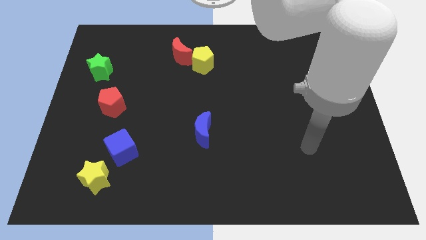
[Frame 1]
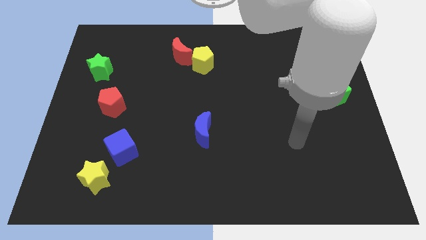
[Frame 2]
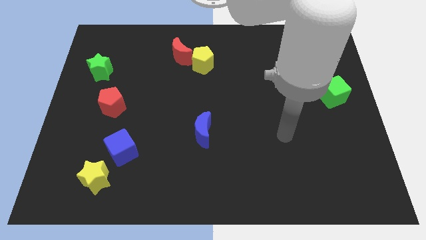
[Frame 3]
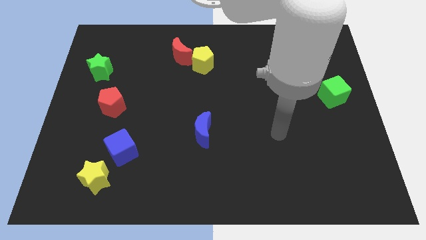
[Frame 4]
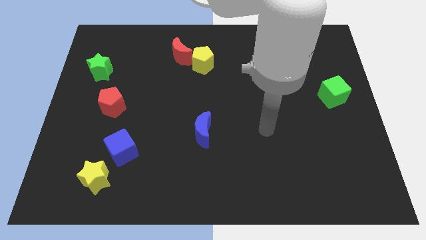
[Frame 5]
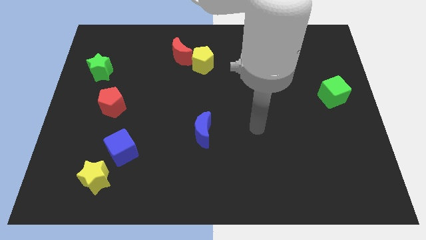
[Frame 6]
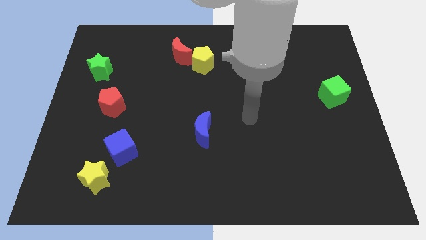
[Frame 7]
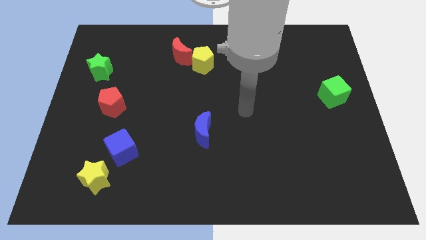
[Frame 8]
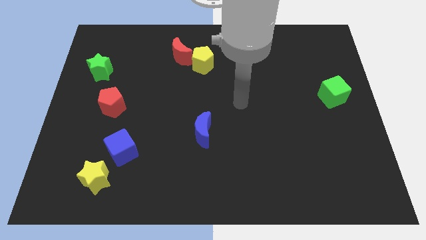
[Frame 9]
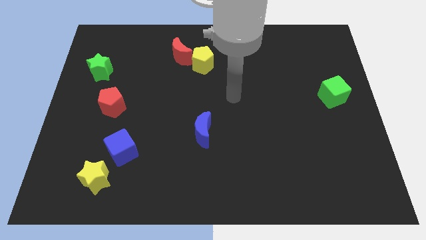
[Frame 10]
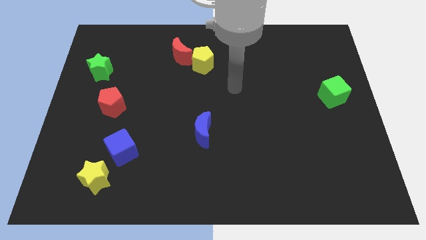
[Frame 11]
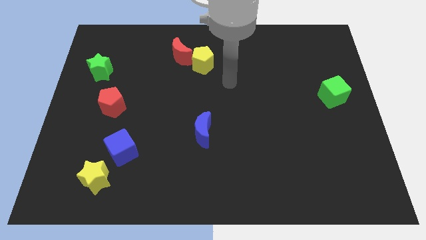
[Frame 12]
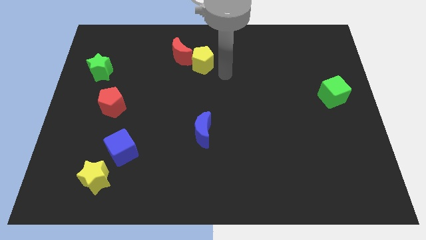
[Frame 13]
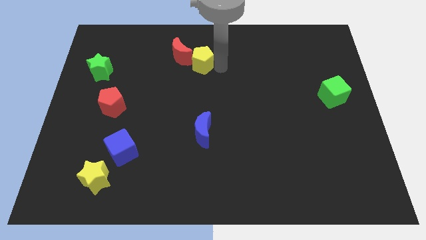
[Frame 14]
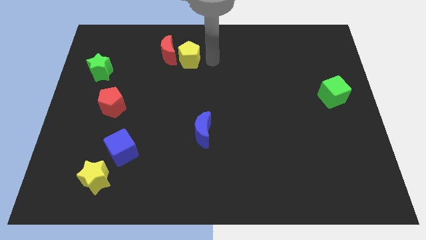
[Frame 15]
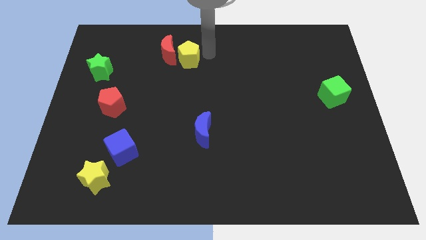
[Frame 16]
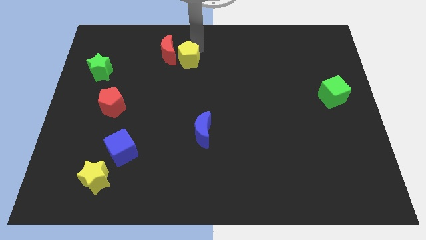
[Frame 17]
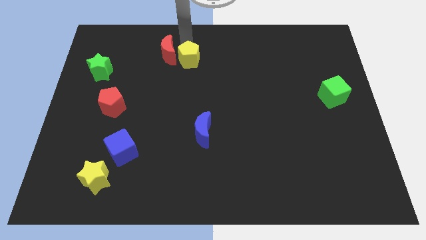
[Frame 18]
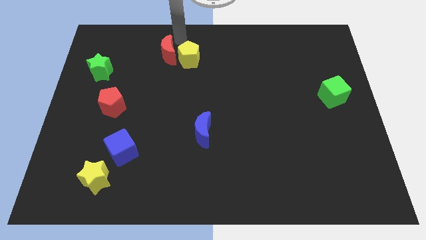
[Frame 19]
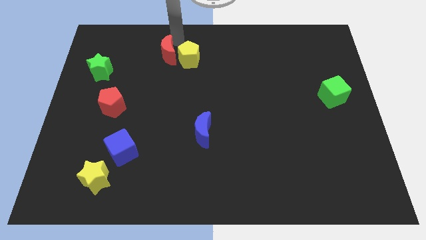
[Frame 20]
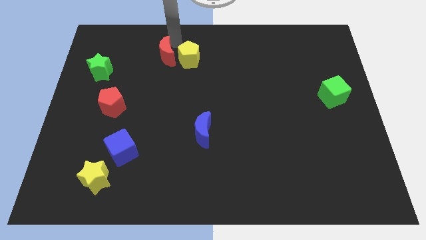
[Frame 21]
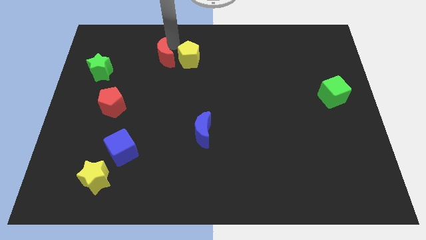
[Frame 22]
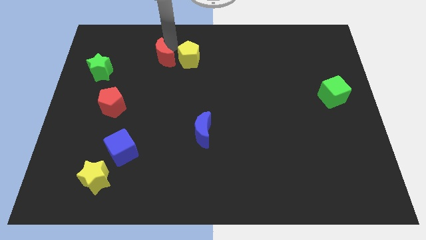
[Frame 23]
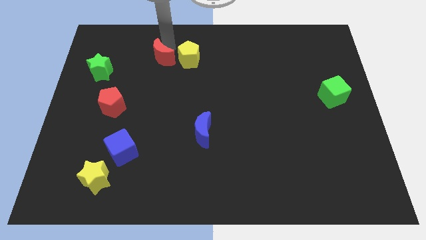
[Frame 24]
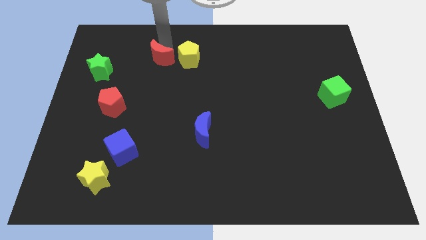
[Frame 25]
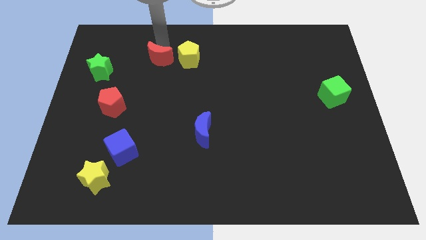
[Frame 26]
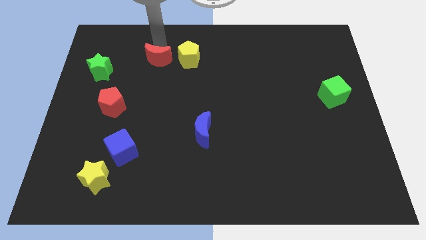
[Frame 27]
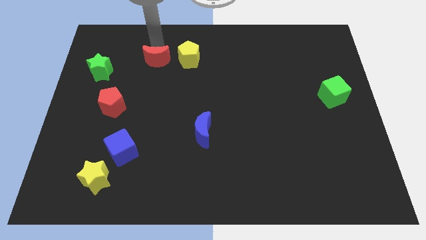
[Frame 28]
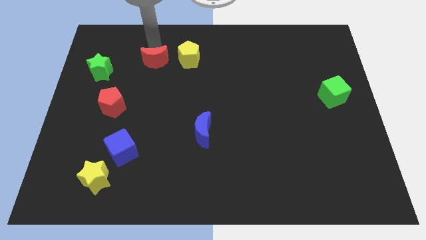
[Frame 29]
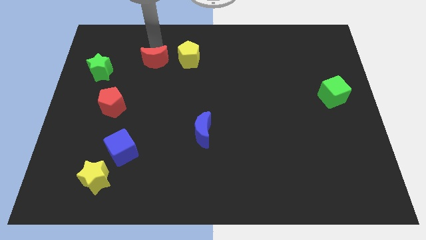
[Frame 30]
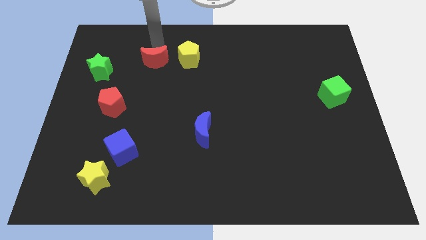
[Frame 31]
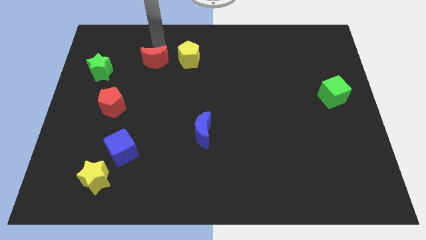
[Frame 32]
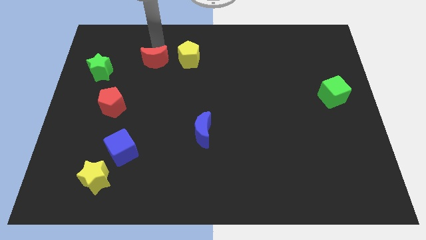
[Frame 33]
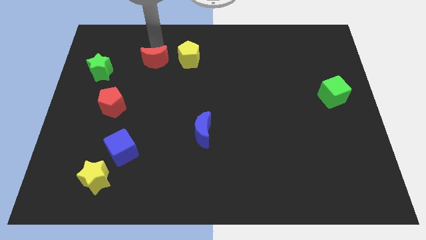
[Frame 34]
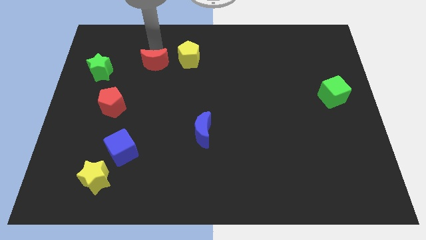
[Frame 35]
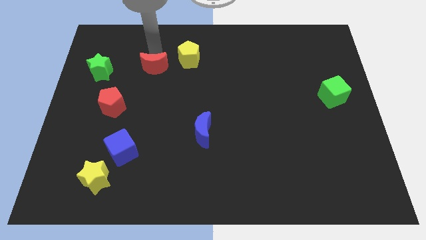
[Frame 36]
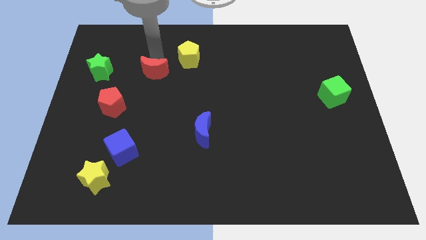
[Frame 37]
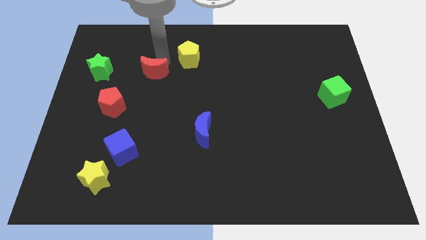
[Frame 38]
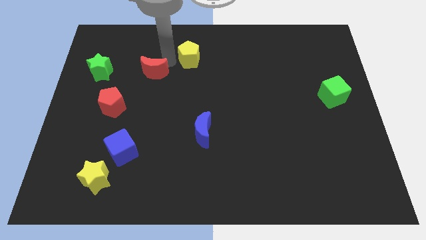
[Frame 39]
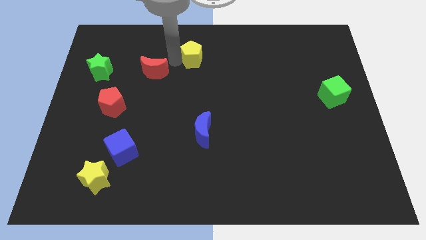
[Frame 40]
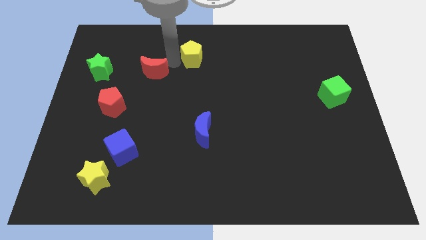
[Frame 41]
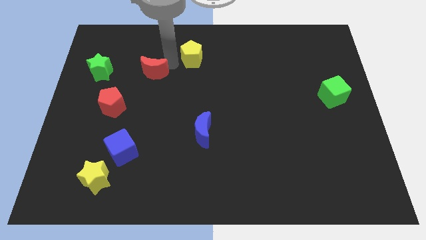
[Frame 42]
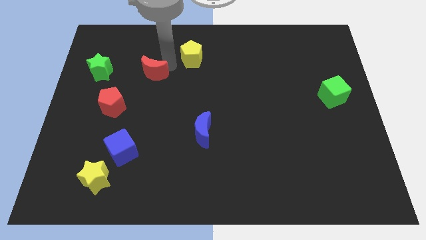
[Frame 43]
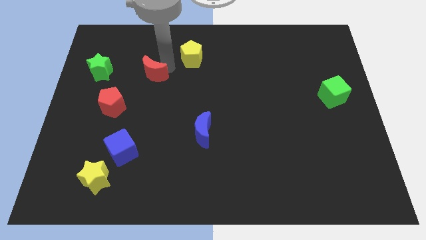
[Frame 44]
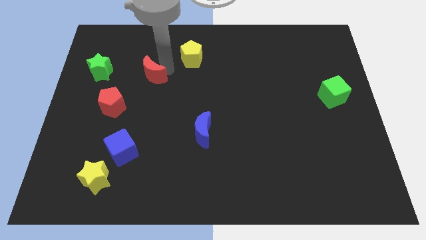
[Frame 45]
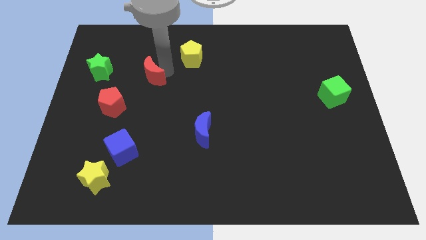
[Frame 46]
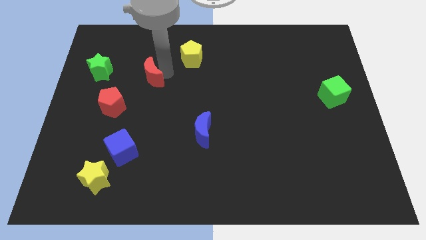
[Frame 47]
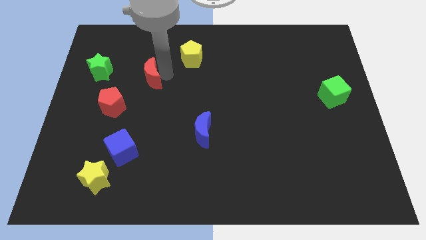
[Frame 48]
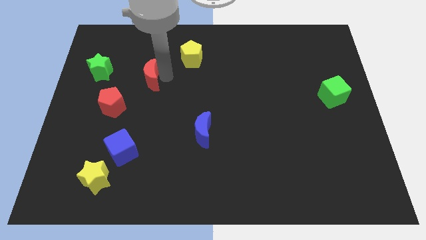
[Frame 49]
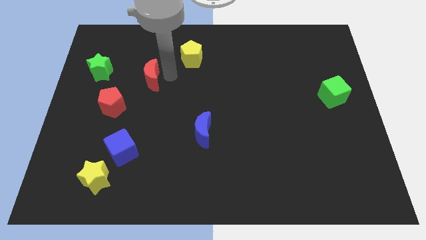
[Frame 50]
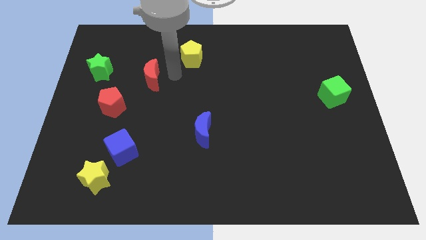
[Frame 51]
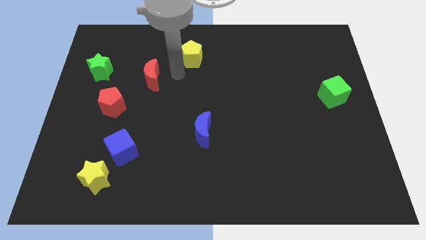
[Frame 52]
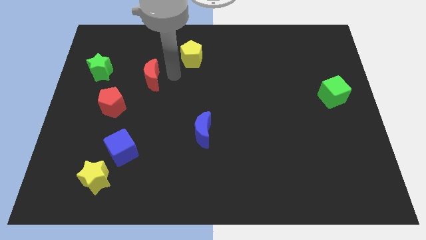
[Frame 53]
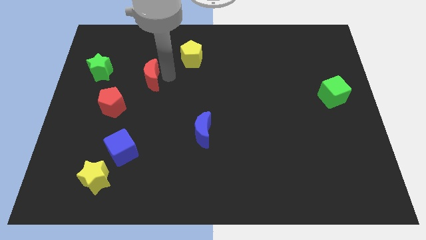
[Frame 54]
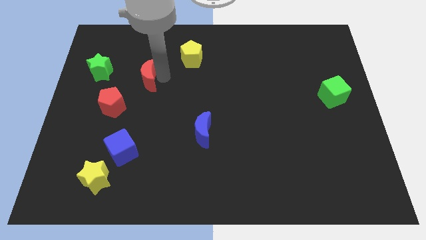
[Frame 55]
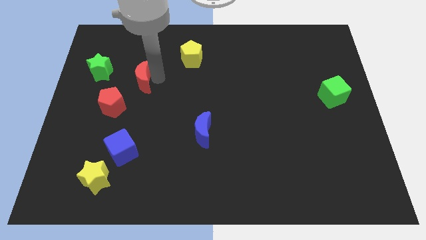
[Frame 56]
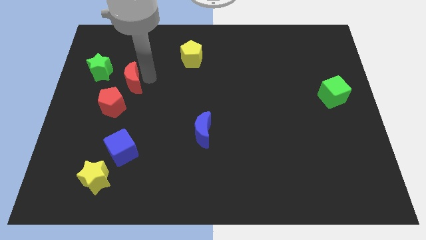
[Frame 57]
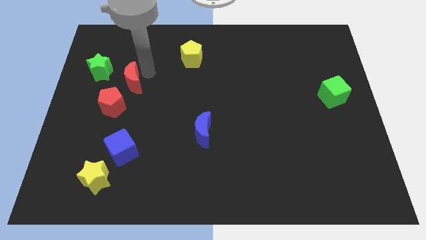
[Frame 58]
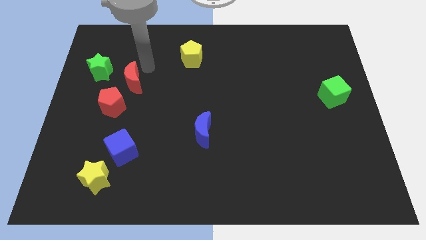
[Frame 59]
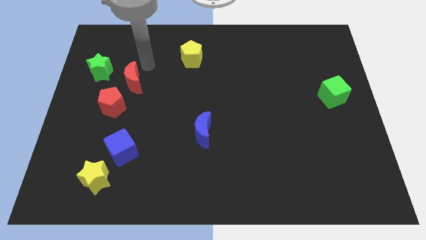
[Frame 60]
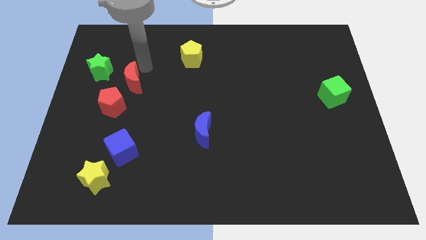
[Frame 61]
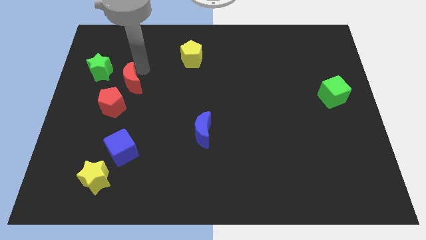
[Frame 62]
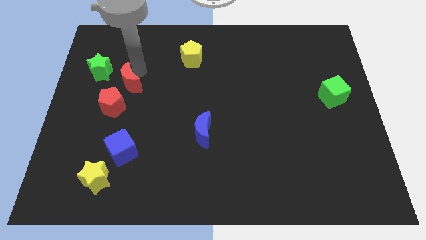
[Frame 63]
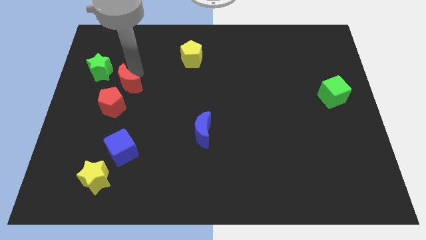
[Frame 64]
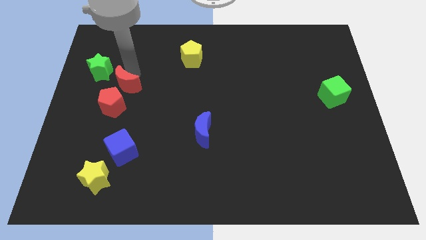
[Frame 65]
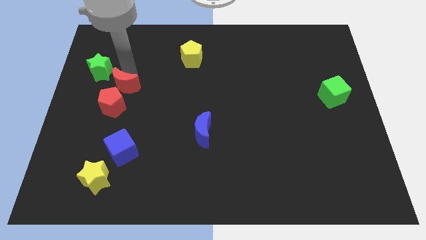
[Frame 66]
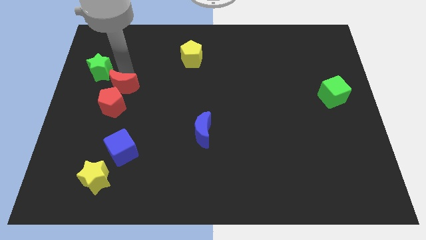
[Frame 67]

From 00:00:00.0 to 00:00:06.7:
slide the red moon next to the red pentagon

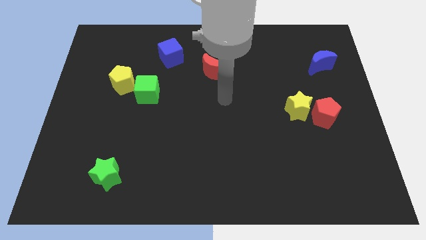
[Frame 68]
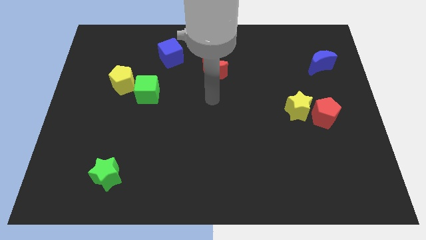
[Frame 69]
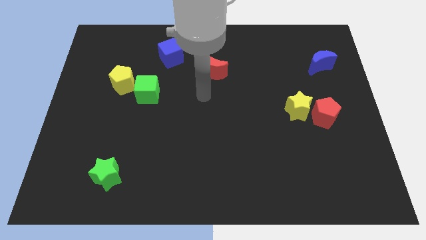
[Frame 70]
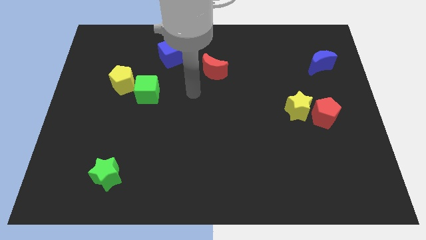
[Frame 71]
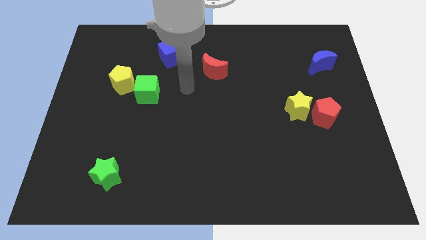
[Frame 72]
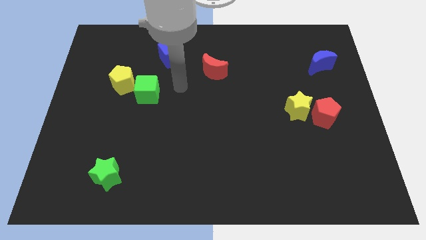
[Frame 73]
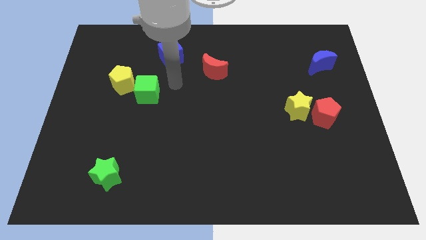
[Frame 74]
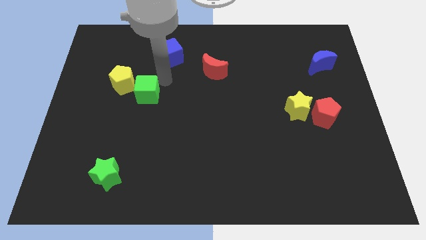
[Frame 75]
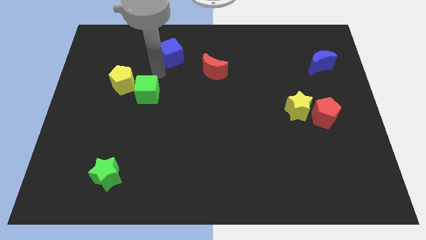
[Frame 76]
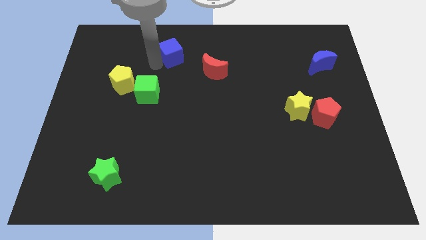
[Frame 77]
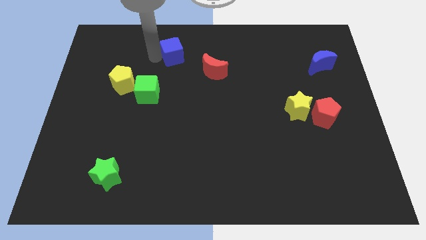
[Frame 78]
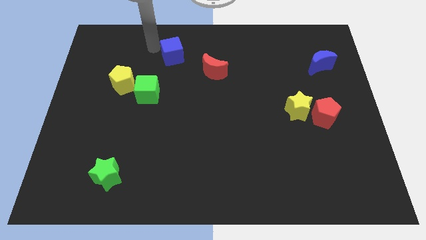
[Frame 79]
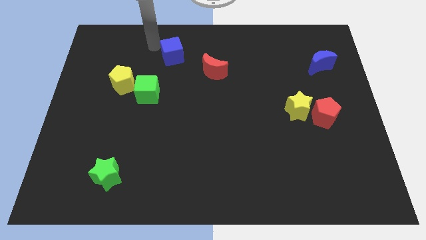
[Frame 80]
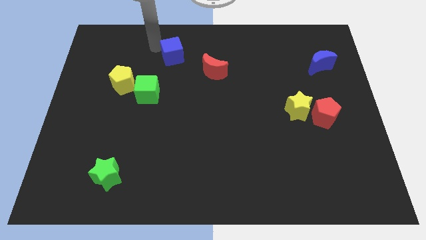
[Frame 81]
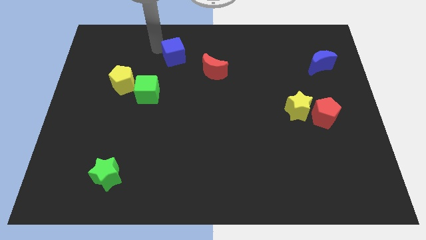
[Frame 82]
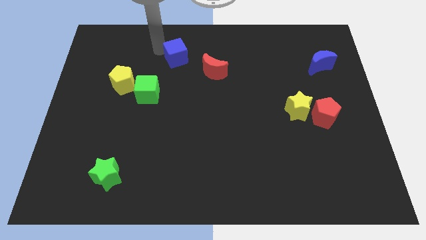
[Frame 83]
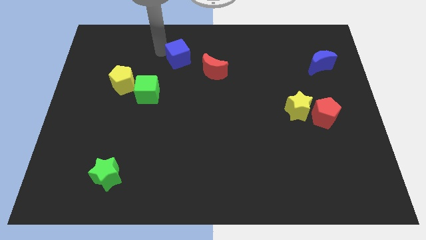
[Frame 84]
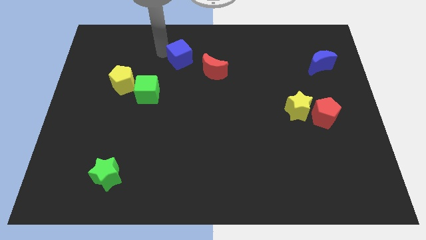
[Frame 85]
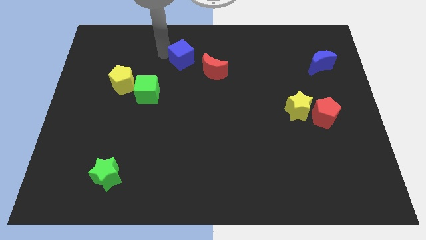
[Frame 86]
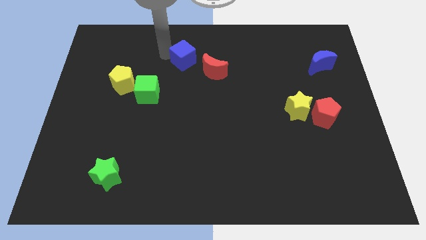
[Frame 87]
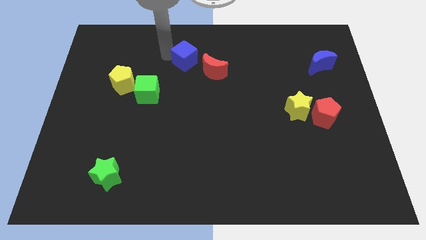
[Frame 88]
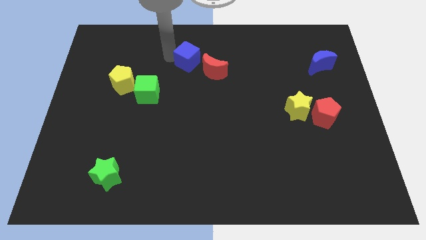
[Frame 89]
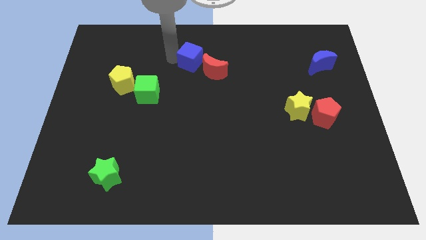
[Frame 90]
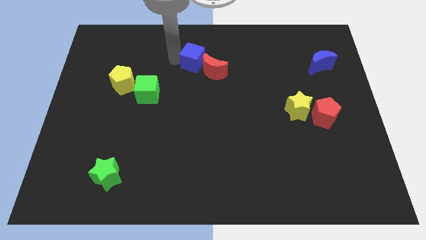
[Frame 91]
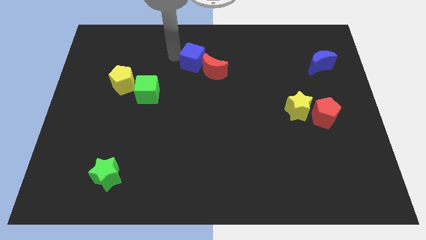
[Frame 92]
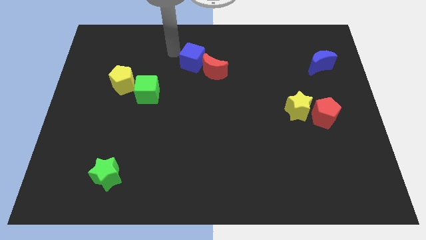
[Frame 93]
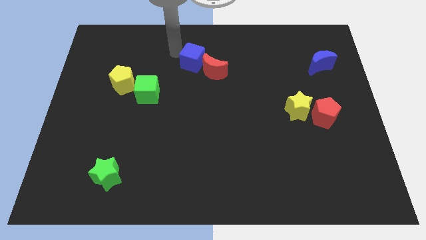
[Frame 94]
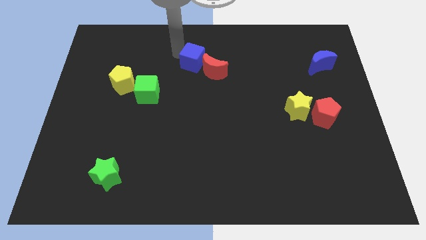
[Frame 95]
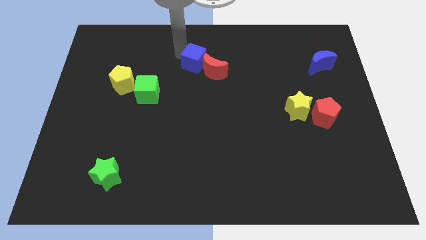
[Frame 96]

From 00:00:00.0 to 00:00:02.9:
slide the blue cube towards the red moon
